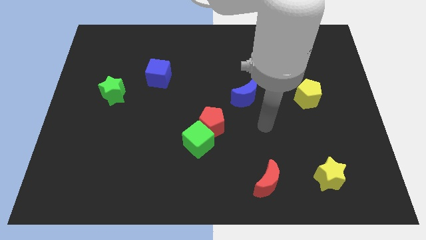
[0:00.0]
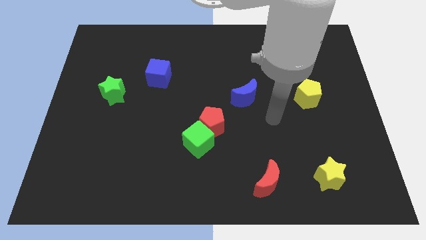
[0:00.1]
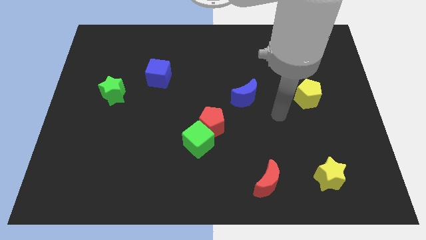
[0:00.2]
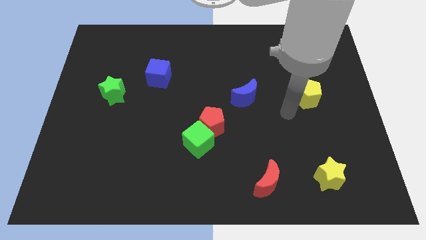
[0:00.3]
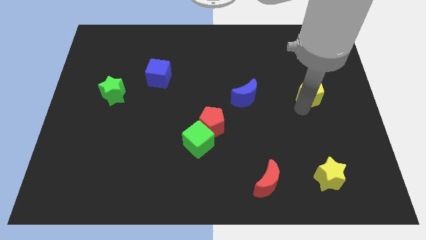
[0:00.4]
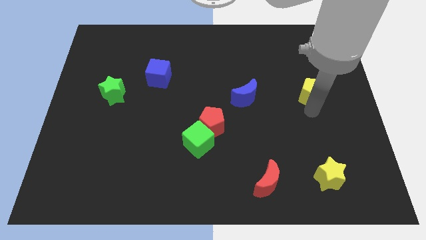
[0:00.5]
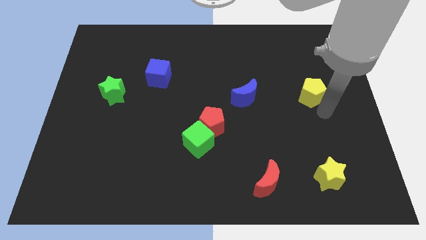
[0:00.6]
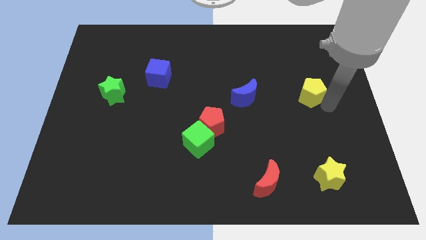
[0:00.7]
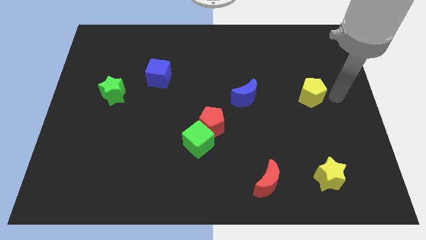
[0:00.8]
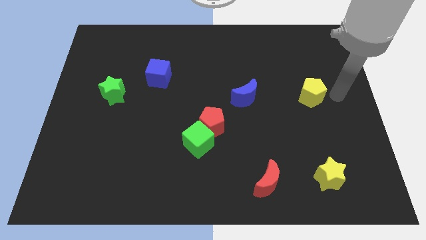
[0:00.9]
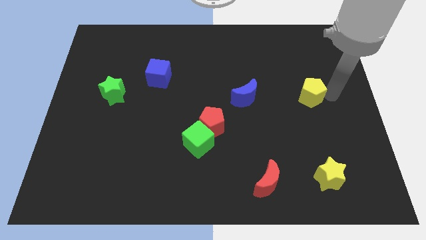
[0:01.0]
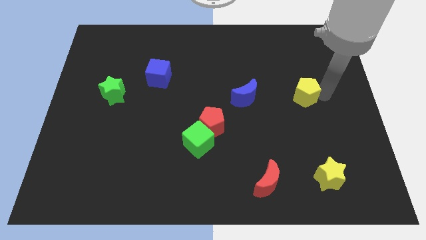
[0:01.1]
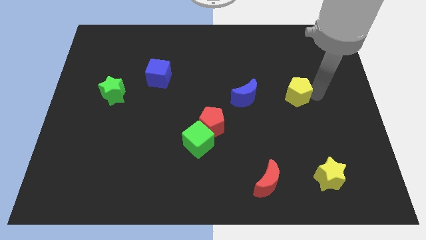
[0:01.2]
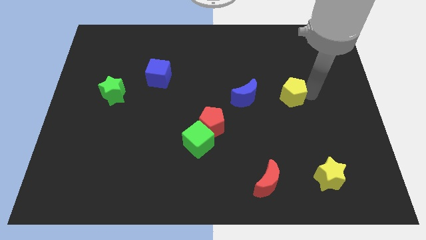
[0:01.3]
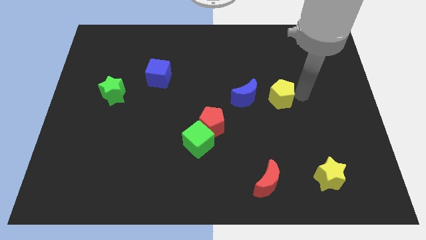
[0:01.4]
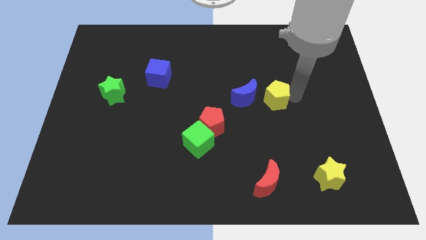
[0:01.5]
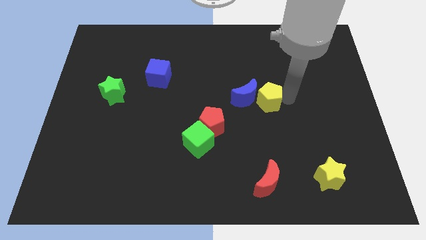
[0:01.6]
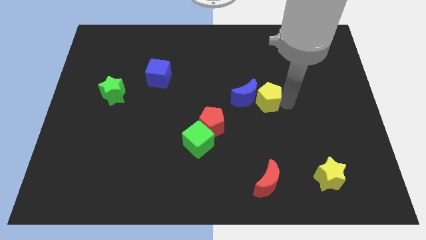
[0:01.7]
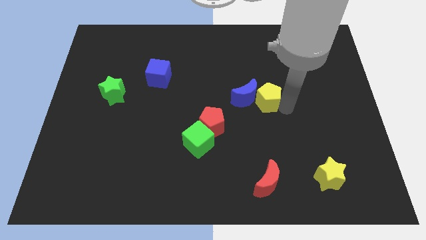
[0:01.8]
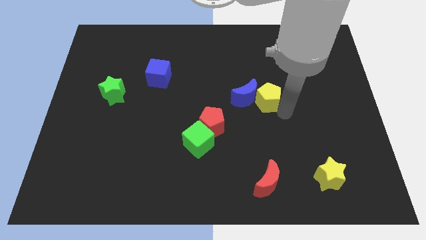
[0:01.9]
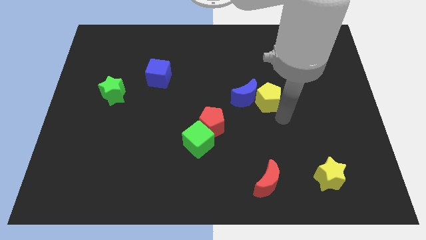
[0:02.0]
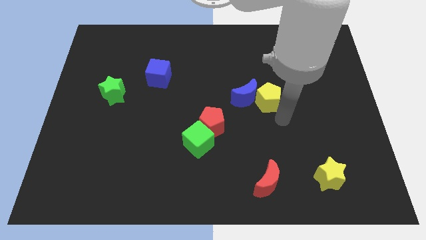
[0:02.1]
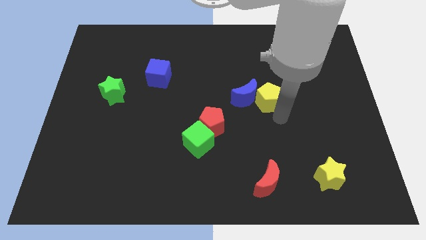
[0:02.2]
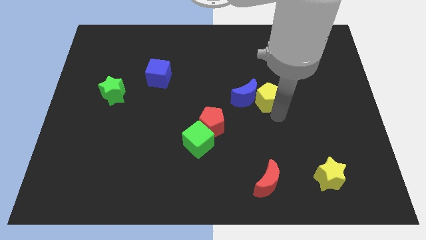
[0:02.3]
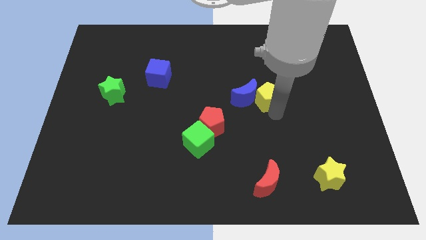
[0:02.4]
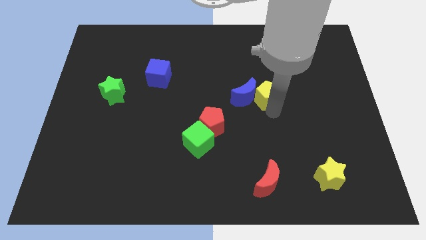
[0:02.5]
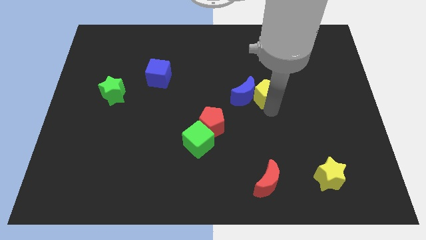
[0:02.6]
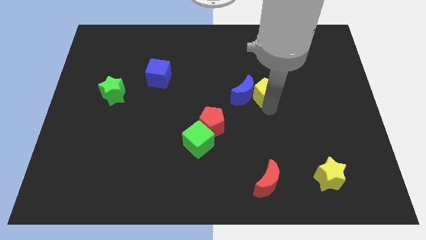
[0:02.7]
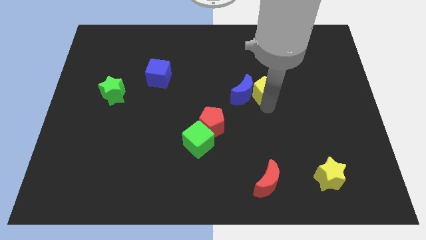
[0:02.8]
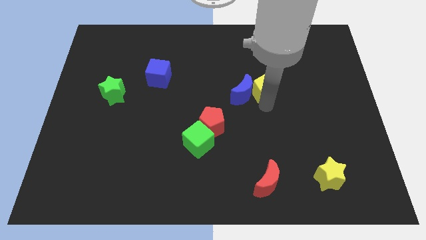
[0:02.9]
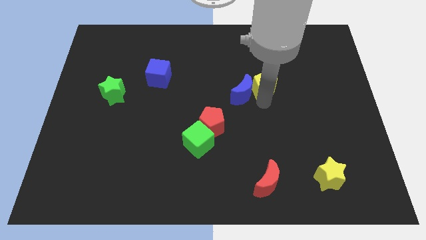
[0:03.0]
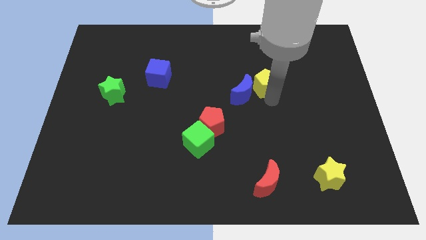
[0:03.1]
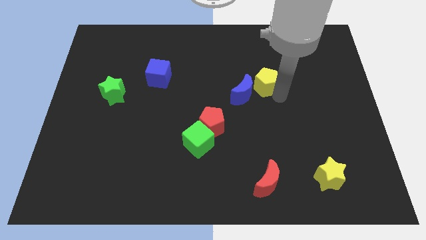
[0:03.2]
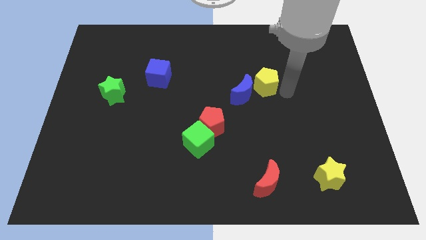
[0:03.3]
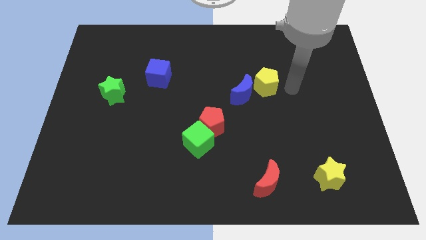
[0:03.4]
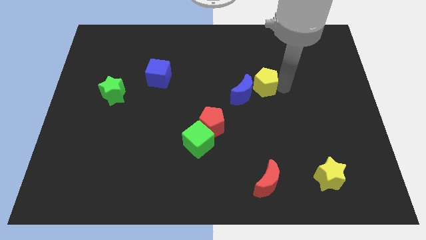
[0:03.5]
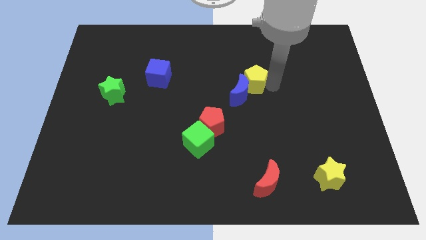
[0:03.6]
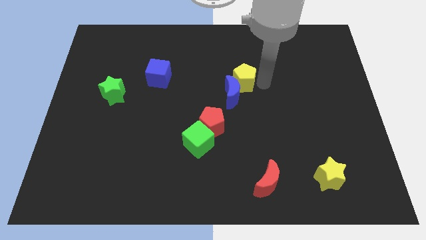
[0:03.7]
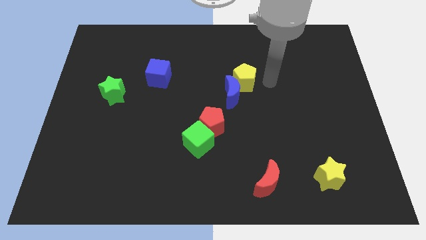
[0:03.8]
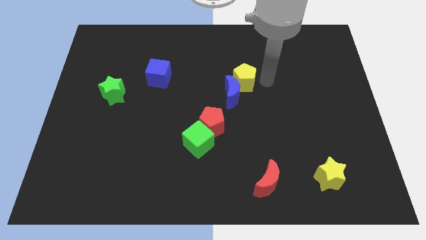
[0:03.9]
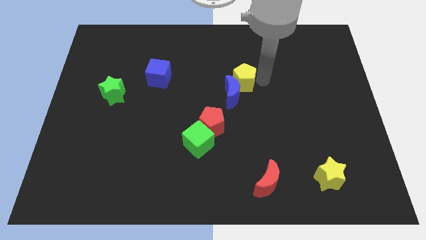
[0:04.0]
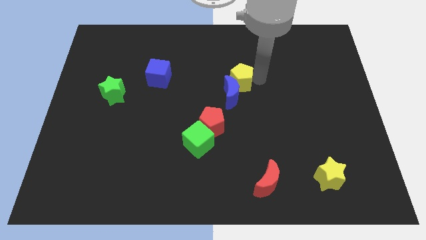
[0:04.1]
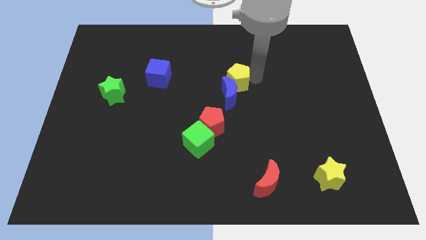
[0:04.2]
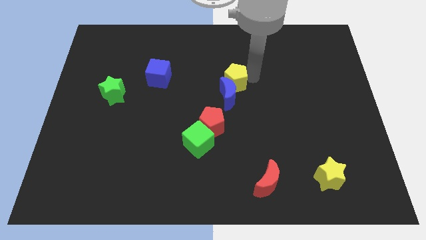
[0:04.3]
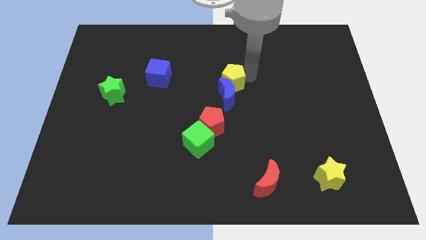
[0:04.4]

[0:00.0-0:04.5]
move the yellow pentagon diagonally up and to the left of the blue moon

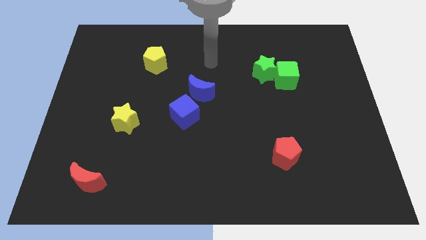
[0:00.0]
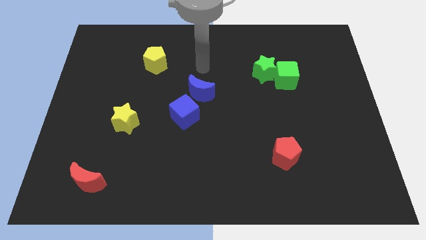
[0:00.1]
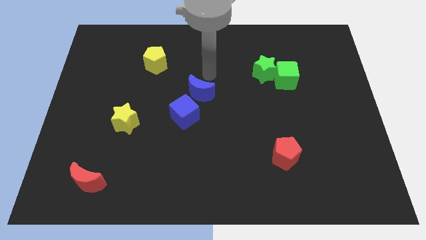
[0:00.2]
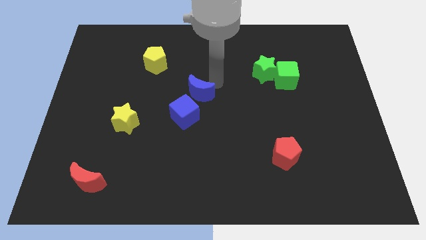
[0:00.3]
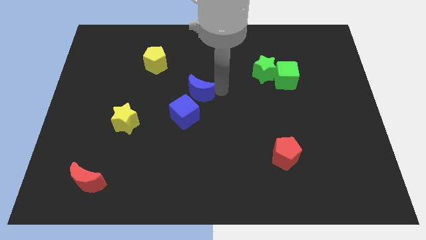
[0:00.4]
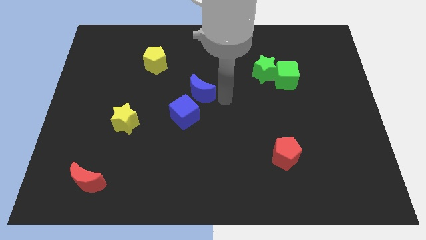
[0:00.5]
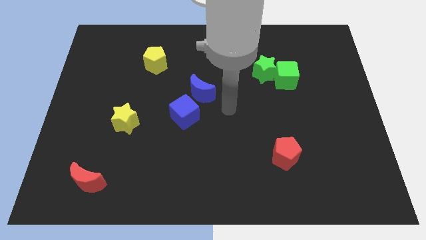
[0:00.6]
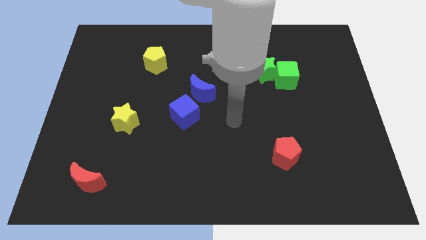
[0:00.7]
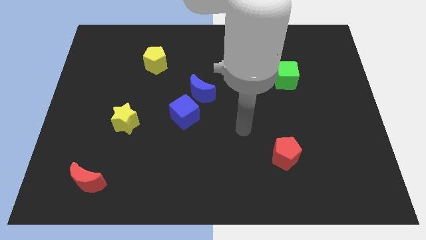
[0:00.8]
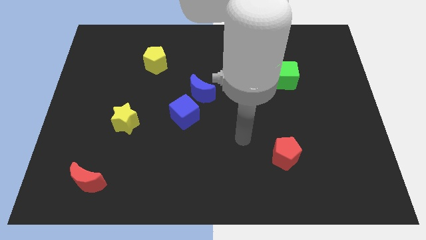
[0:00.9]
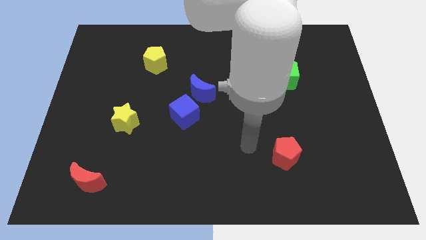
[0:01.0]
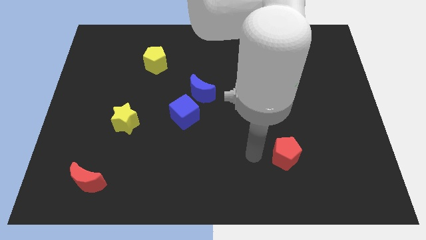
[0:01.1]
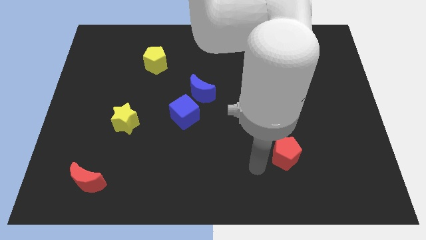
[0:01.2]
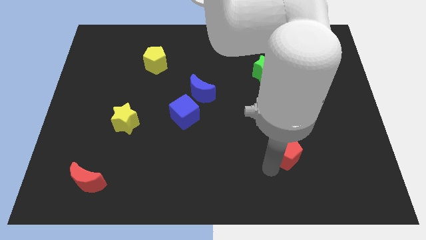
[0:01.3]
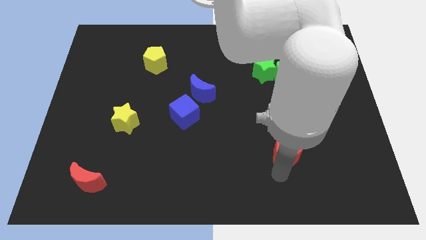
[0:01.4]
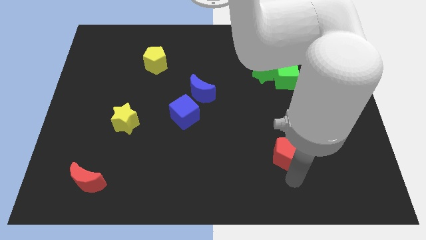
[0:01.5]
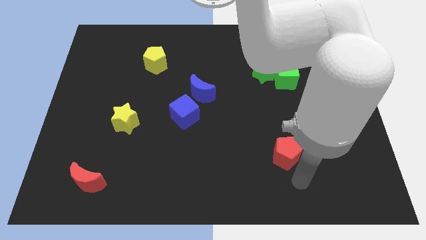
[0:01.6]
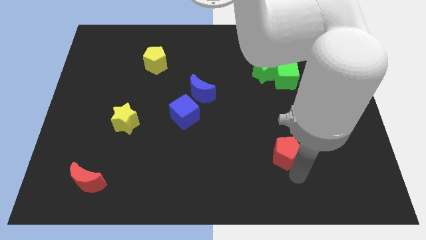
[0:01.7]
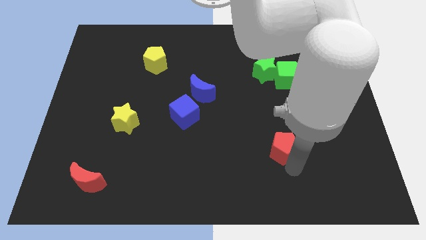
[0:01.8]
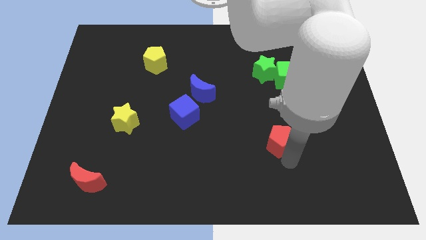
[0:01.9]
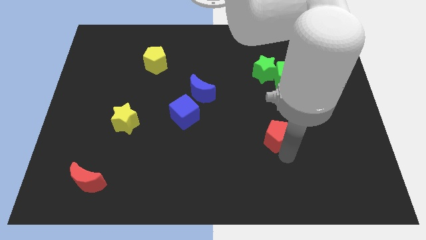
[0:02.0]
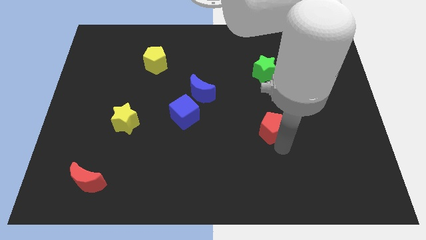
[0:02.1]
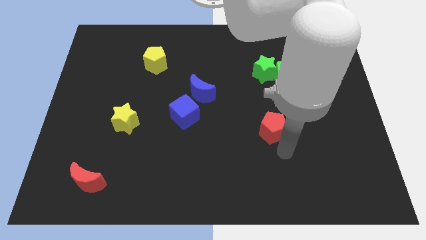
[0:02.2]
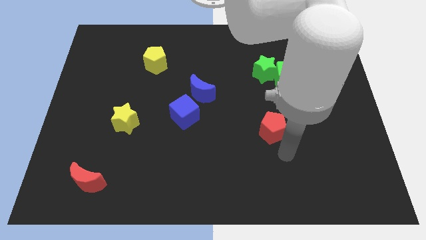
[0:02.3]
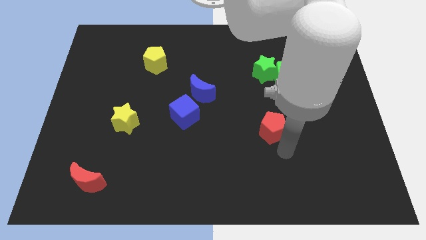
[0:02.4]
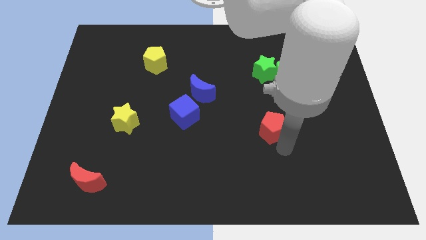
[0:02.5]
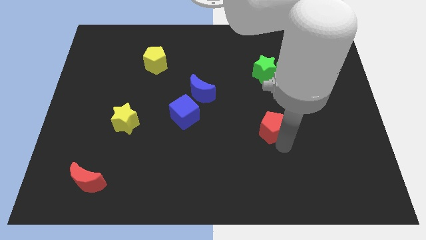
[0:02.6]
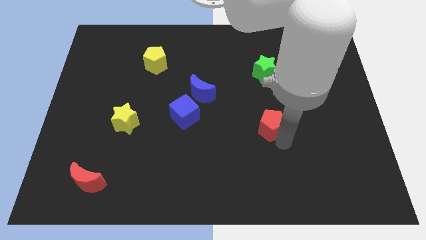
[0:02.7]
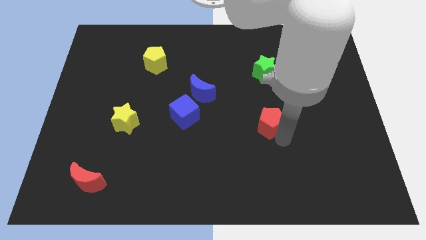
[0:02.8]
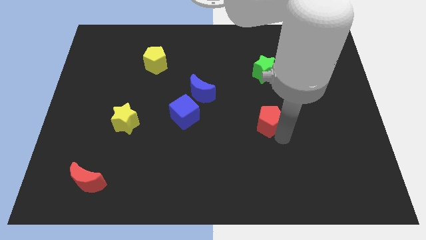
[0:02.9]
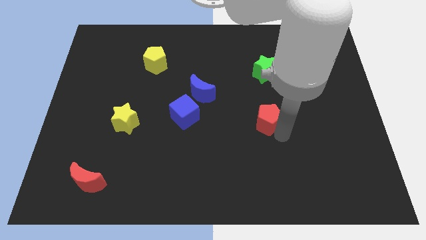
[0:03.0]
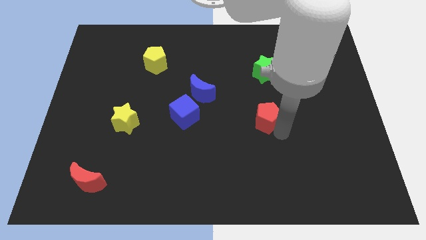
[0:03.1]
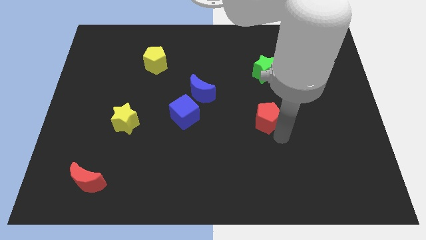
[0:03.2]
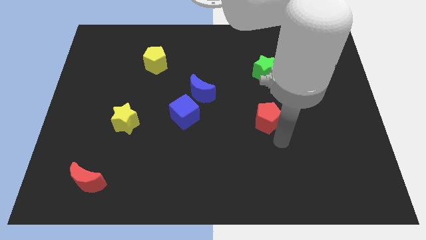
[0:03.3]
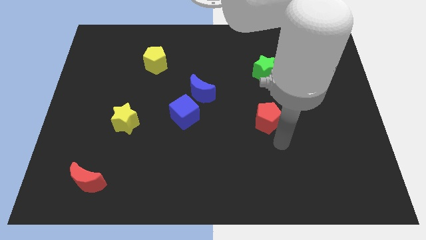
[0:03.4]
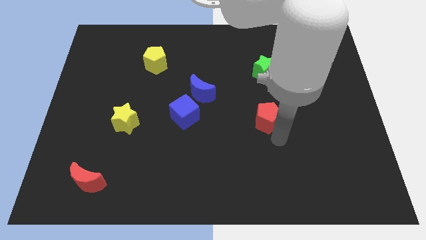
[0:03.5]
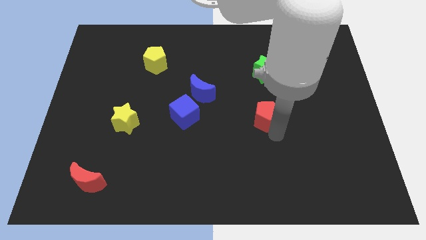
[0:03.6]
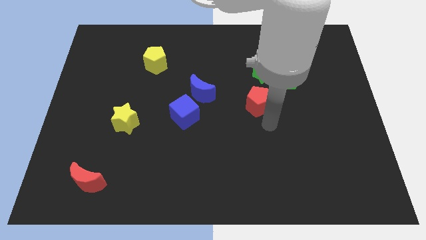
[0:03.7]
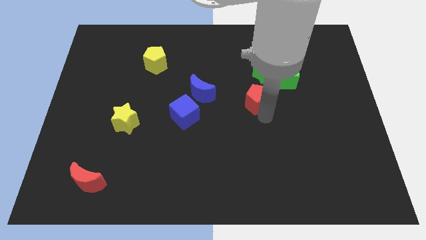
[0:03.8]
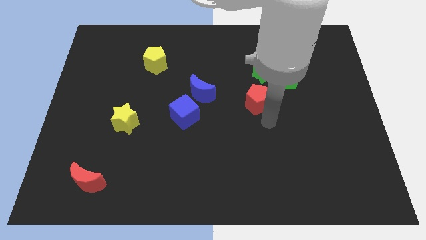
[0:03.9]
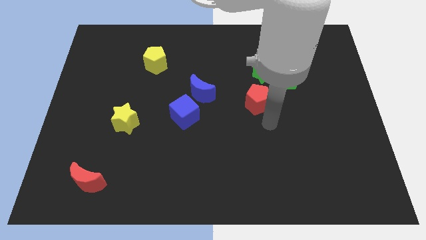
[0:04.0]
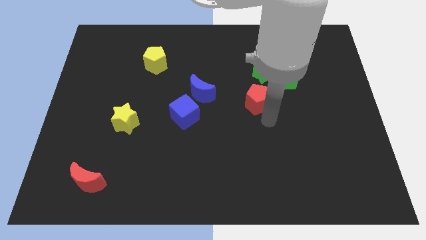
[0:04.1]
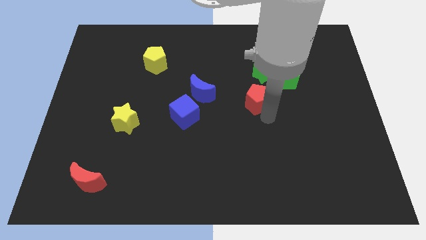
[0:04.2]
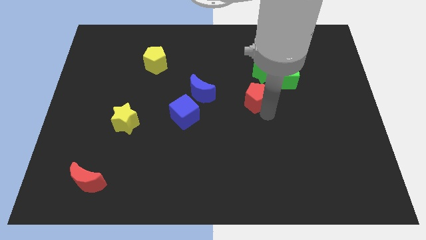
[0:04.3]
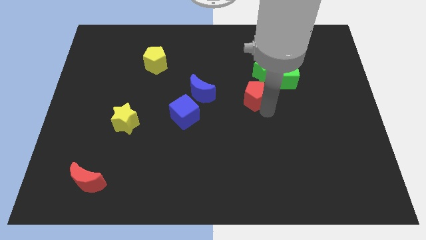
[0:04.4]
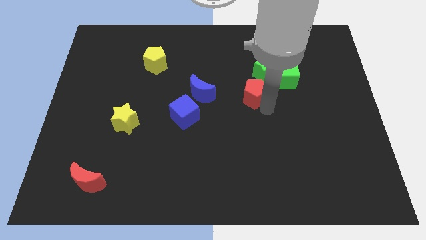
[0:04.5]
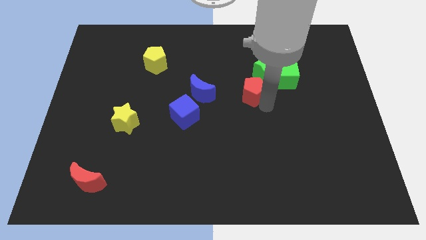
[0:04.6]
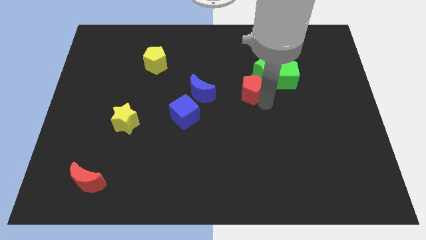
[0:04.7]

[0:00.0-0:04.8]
slide the red pentagon to the left of the green cube
